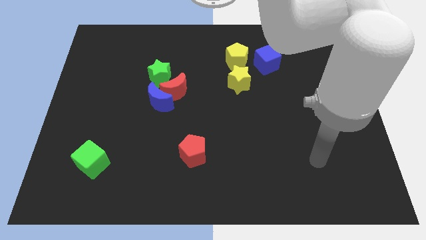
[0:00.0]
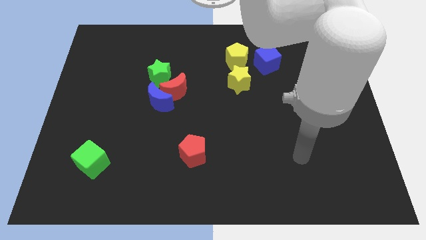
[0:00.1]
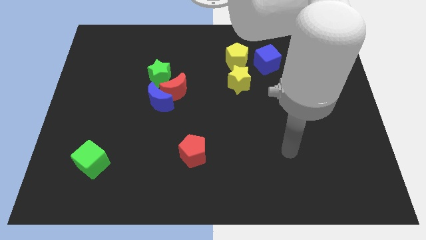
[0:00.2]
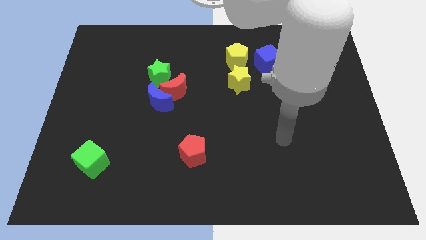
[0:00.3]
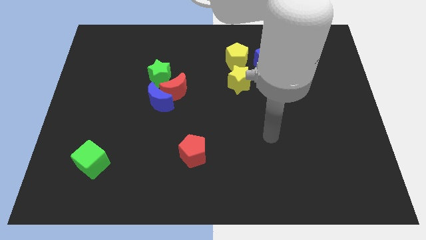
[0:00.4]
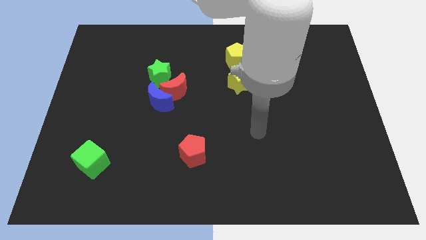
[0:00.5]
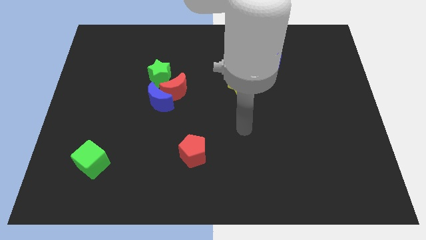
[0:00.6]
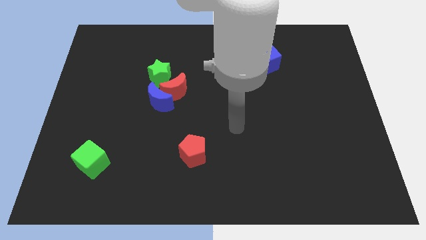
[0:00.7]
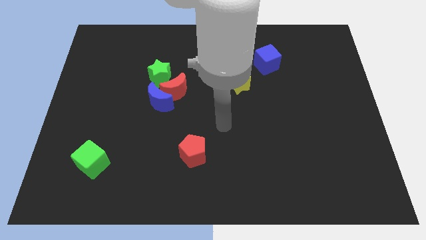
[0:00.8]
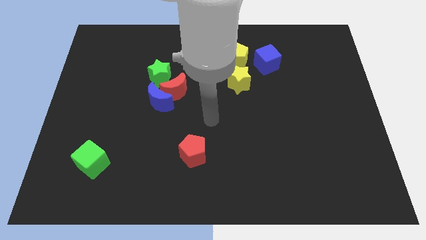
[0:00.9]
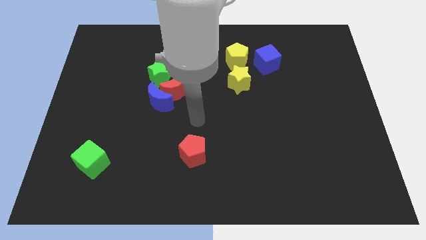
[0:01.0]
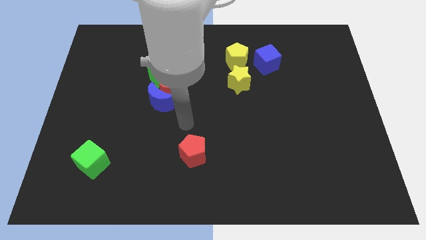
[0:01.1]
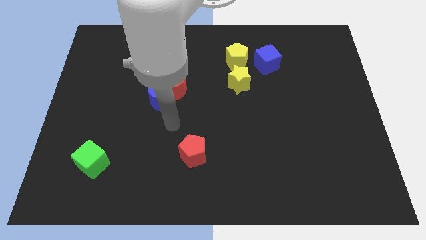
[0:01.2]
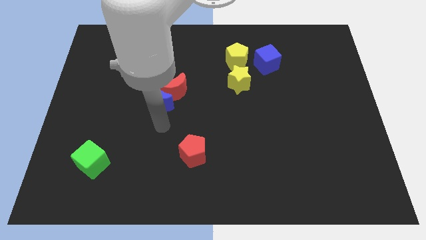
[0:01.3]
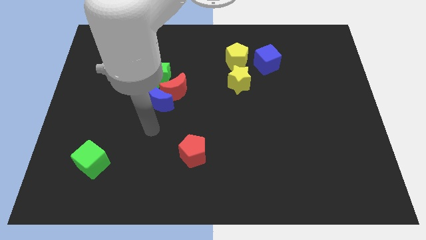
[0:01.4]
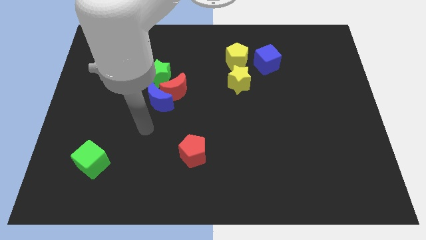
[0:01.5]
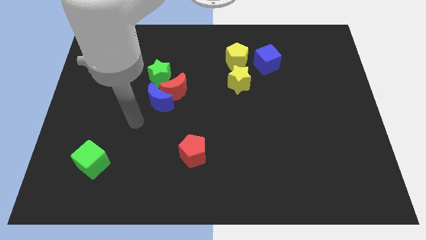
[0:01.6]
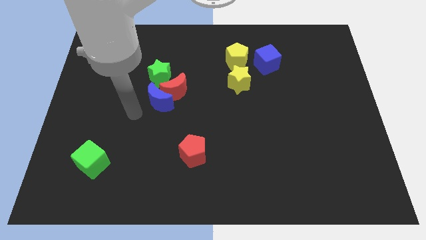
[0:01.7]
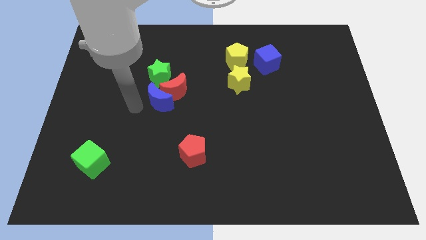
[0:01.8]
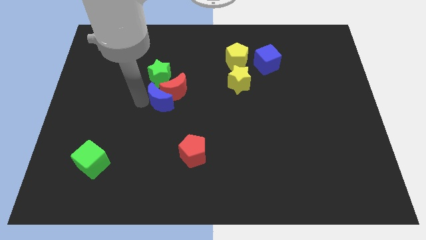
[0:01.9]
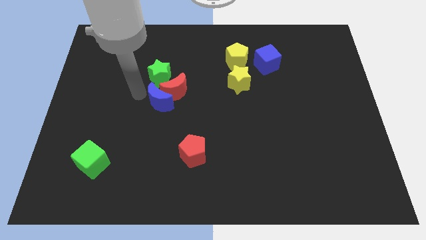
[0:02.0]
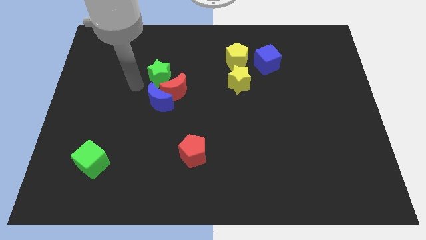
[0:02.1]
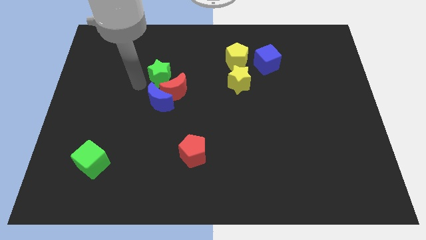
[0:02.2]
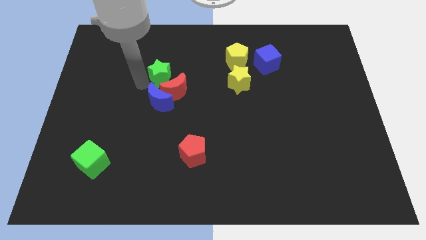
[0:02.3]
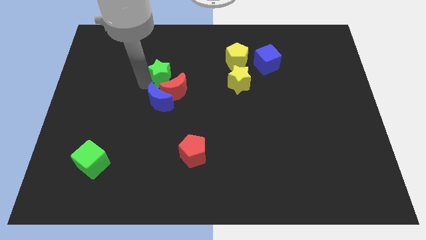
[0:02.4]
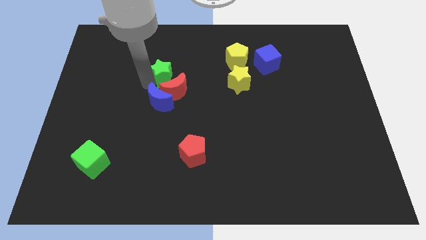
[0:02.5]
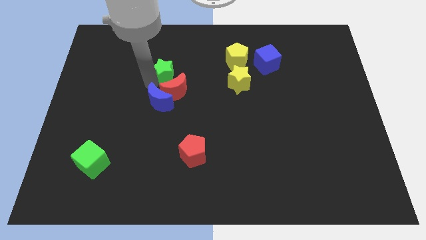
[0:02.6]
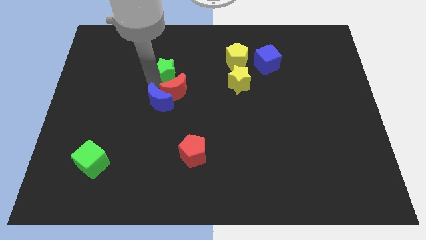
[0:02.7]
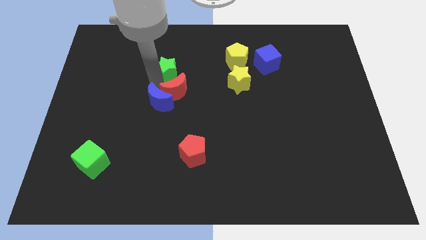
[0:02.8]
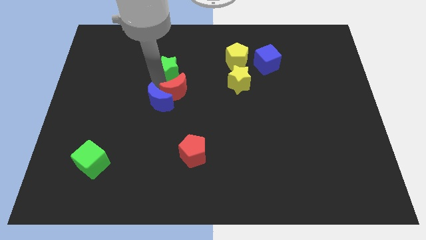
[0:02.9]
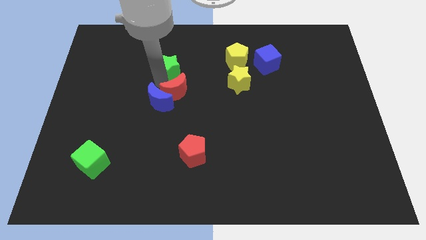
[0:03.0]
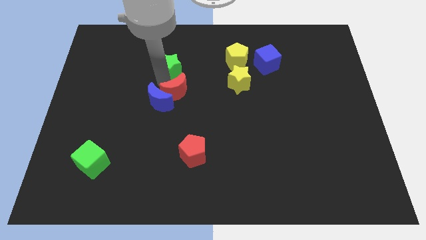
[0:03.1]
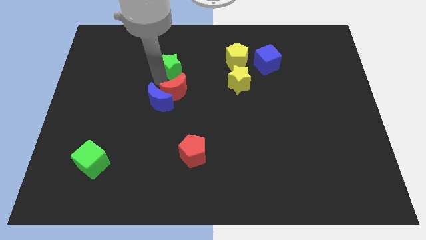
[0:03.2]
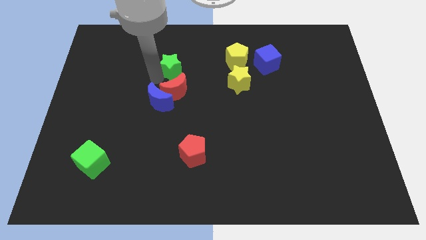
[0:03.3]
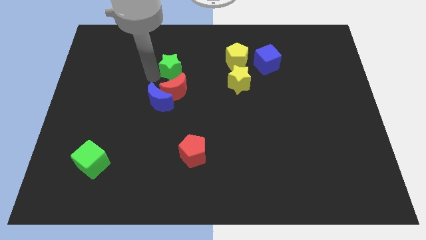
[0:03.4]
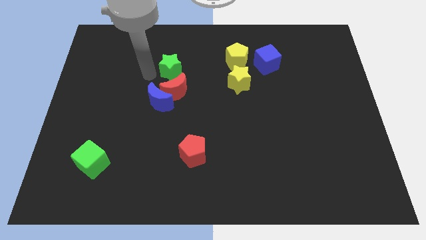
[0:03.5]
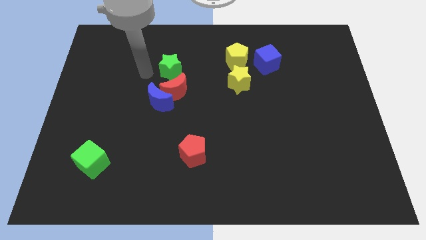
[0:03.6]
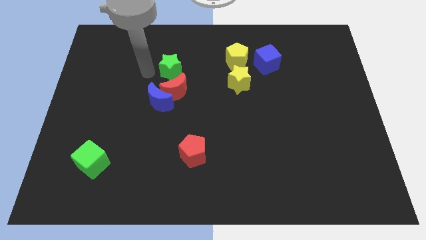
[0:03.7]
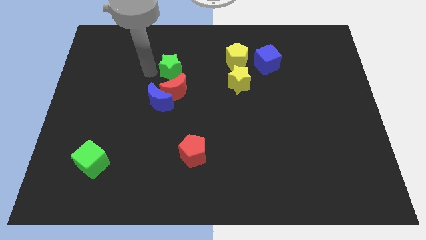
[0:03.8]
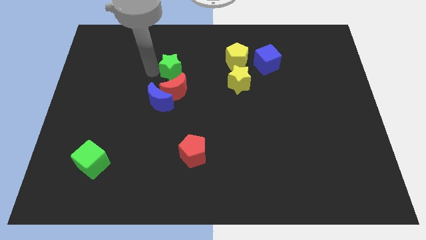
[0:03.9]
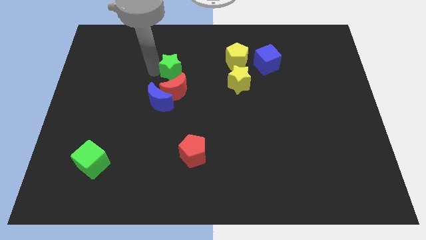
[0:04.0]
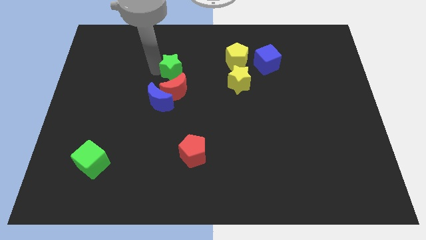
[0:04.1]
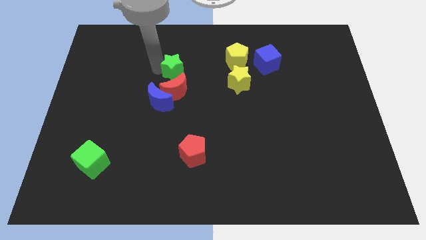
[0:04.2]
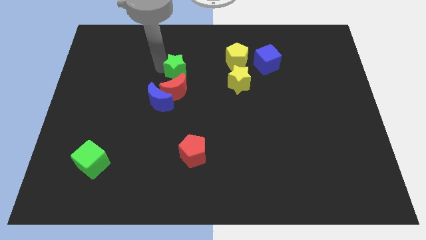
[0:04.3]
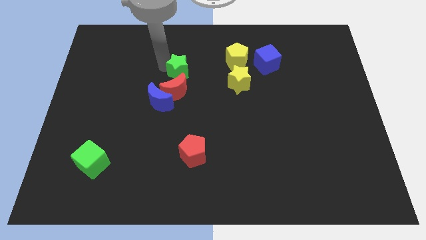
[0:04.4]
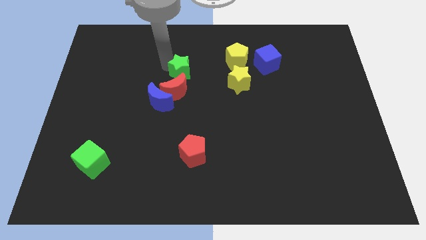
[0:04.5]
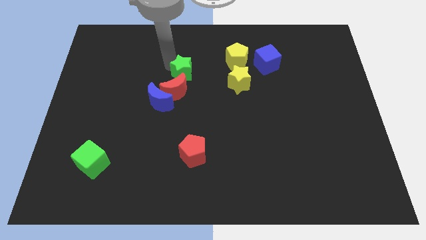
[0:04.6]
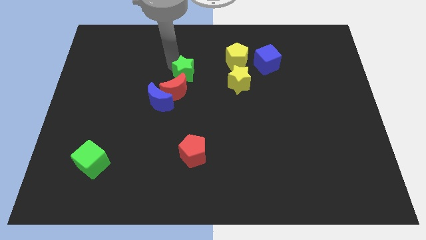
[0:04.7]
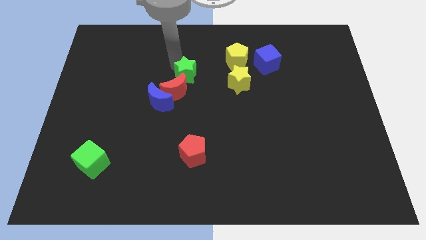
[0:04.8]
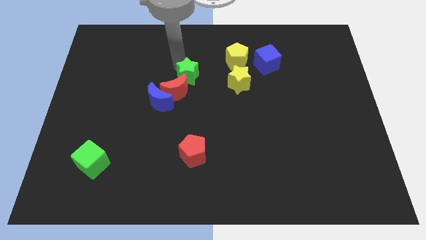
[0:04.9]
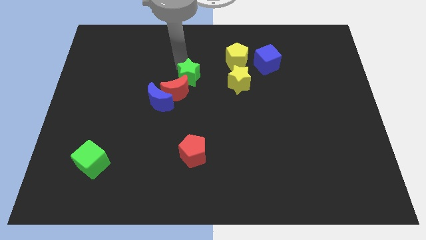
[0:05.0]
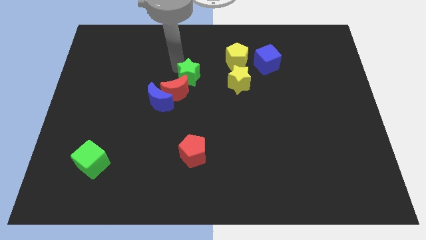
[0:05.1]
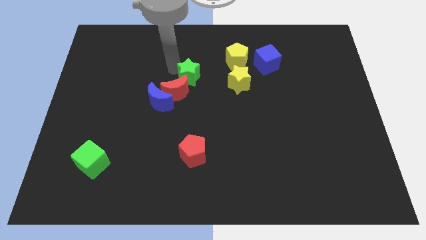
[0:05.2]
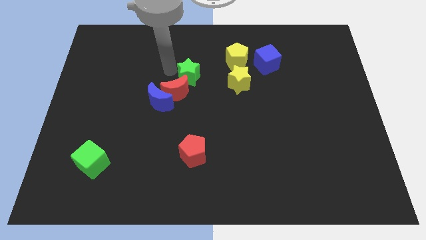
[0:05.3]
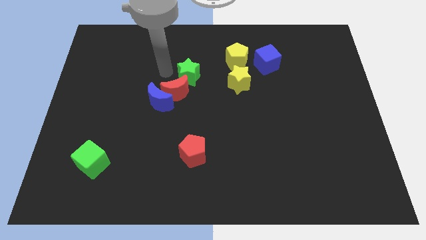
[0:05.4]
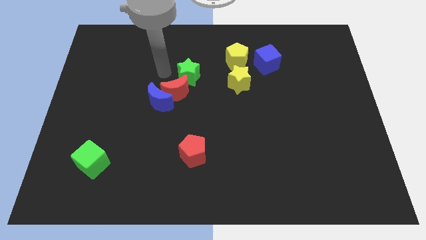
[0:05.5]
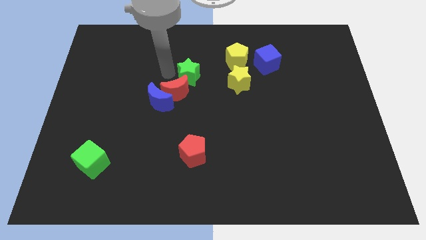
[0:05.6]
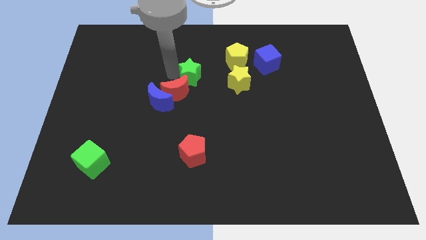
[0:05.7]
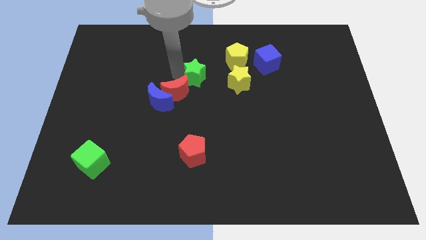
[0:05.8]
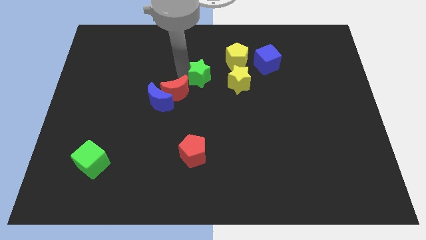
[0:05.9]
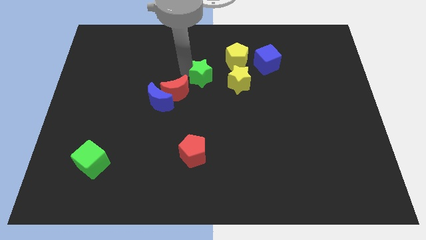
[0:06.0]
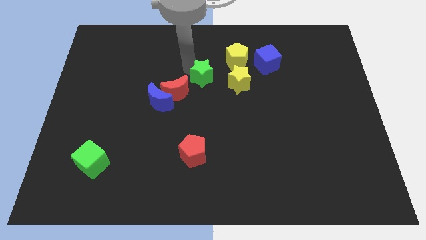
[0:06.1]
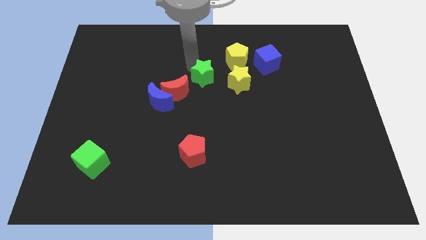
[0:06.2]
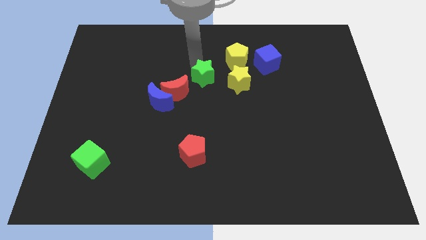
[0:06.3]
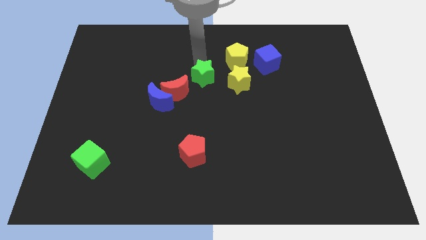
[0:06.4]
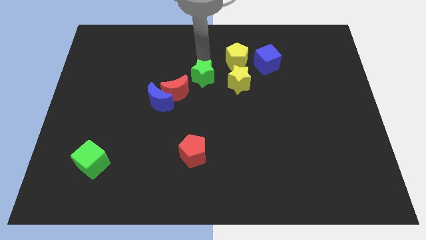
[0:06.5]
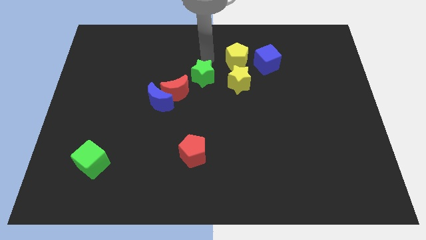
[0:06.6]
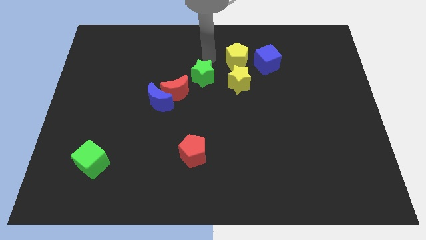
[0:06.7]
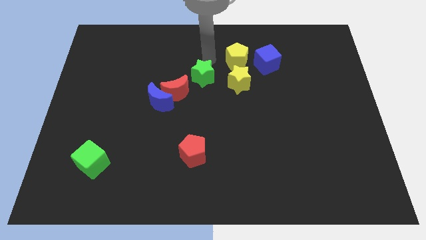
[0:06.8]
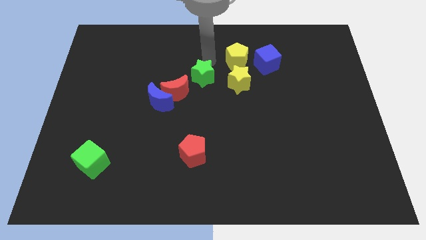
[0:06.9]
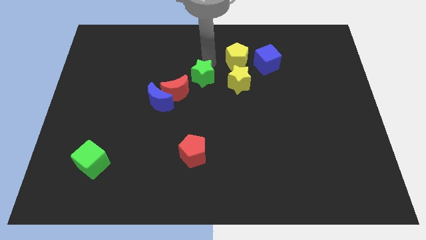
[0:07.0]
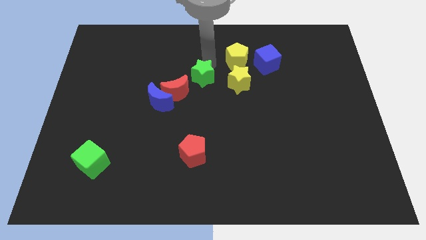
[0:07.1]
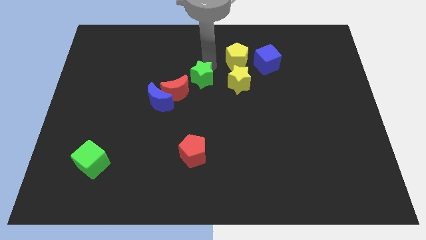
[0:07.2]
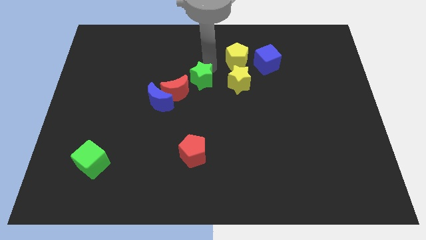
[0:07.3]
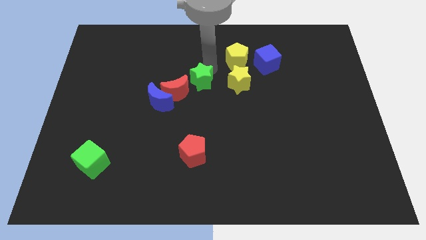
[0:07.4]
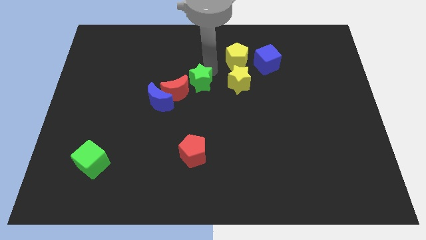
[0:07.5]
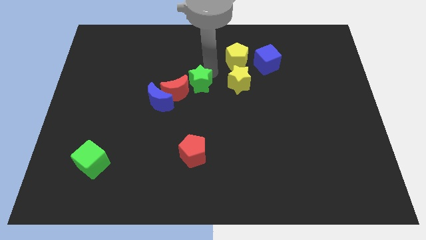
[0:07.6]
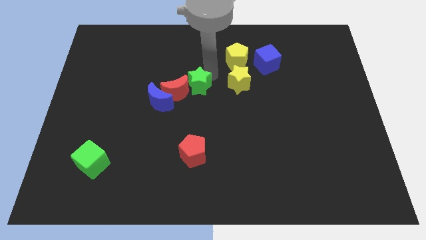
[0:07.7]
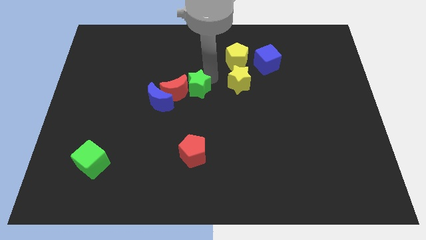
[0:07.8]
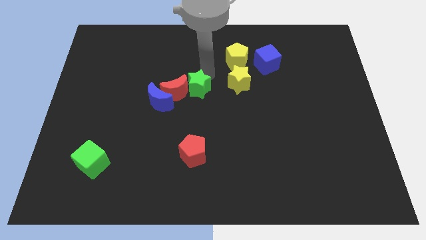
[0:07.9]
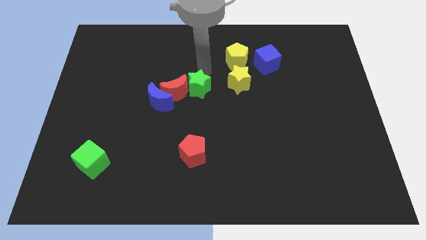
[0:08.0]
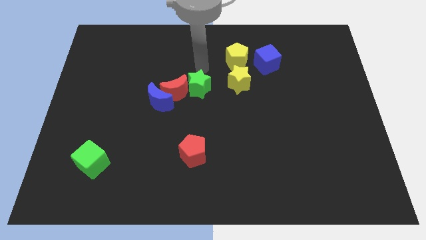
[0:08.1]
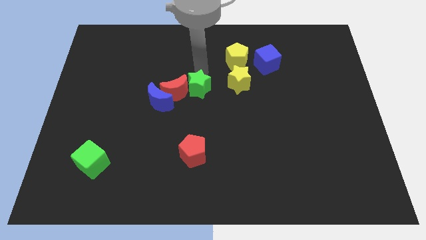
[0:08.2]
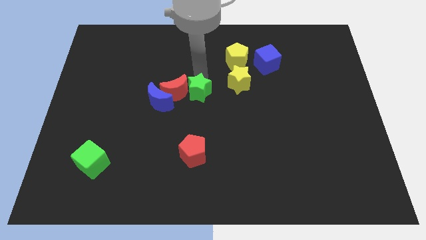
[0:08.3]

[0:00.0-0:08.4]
move the green star diagonally down and to the right of the red moon

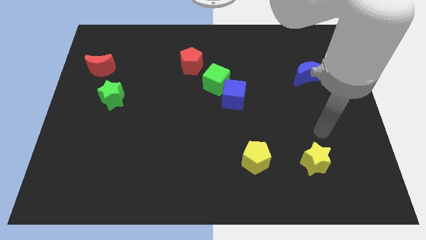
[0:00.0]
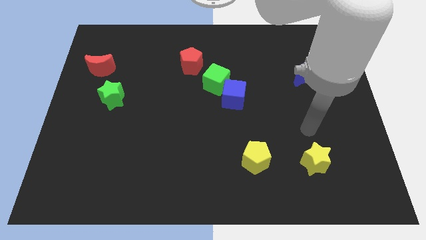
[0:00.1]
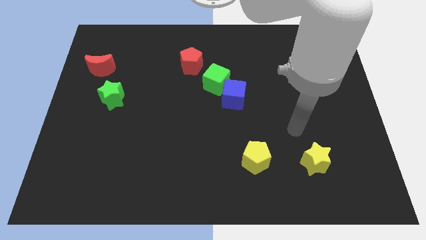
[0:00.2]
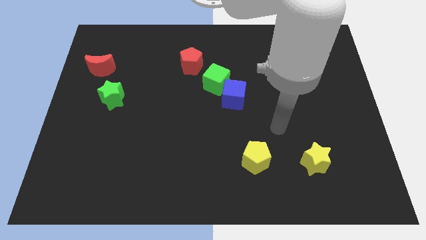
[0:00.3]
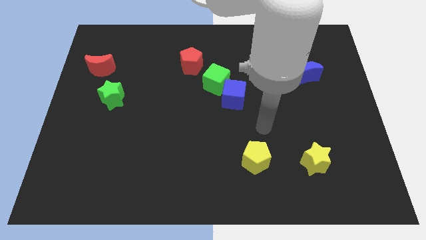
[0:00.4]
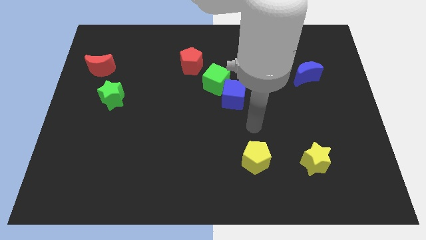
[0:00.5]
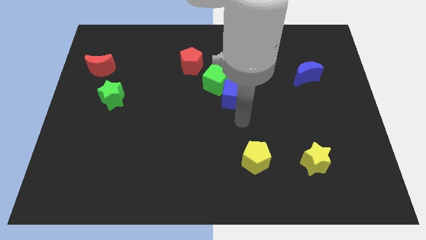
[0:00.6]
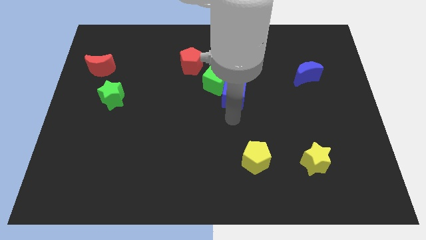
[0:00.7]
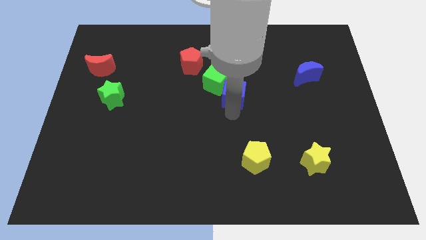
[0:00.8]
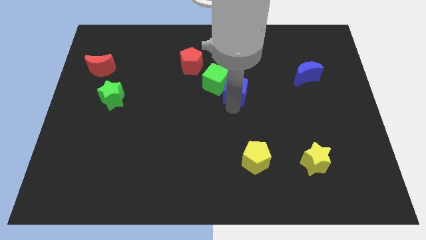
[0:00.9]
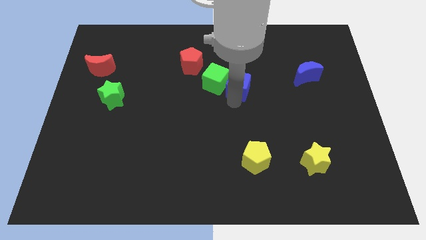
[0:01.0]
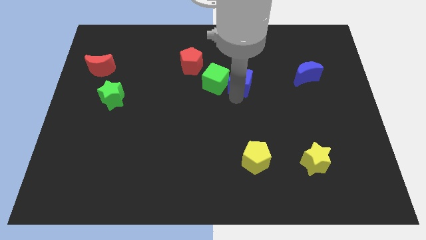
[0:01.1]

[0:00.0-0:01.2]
put the blue cube to the top right side of the green cube
